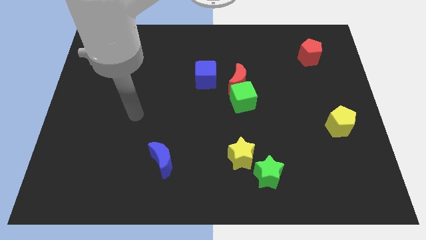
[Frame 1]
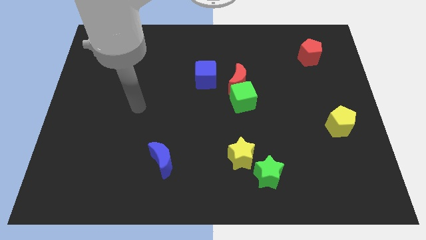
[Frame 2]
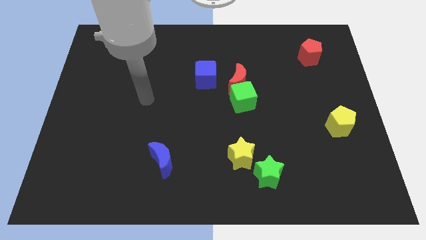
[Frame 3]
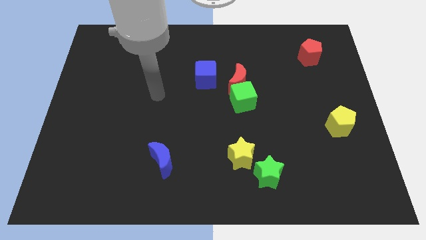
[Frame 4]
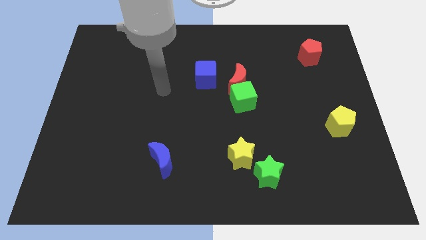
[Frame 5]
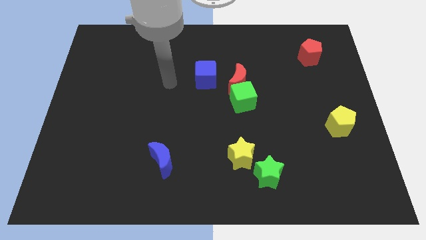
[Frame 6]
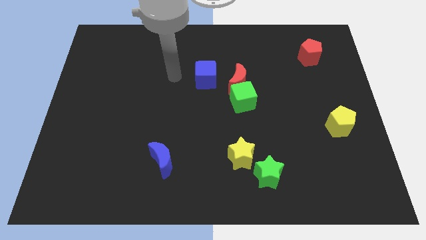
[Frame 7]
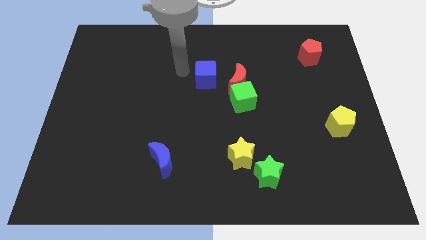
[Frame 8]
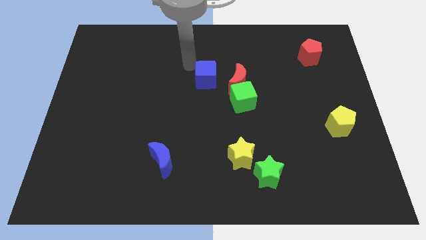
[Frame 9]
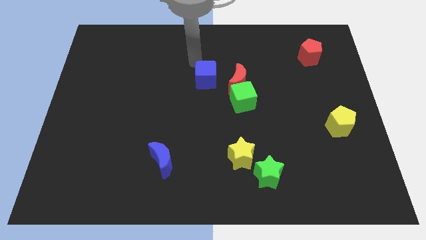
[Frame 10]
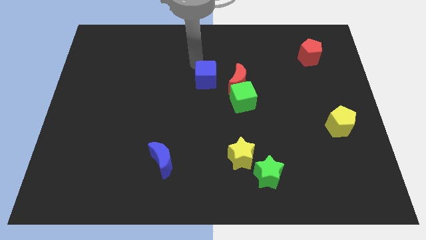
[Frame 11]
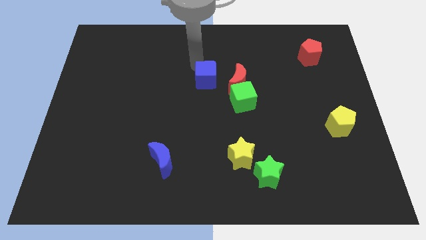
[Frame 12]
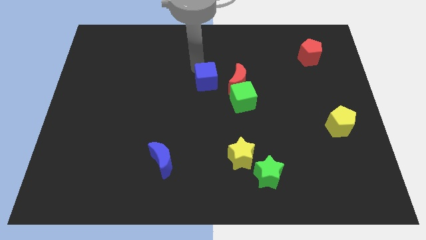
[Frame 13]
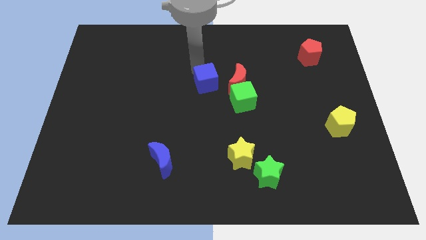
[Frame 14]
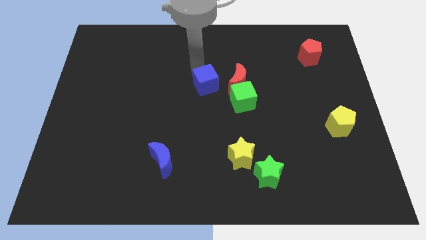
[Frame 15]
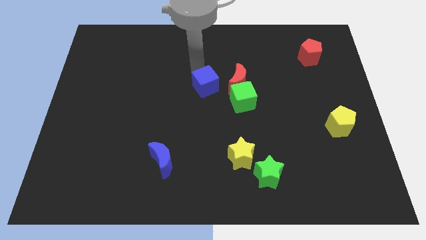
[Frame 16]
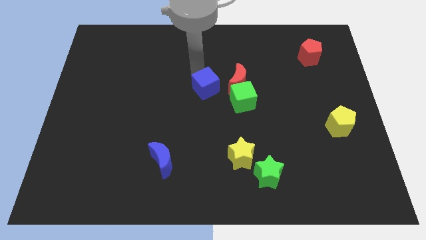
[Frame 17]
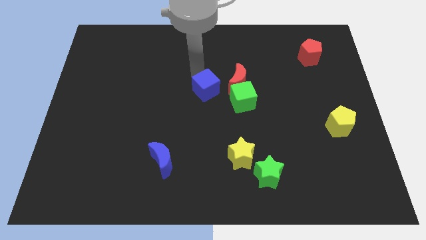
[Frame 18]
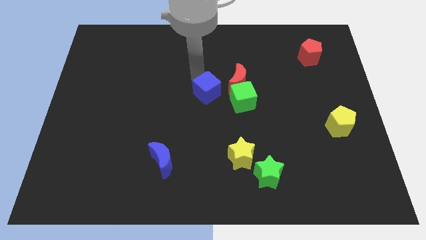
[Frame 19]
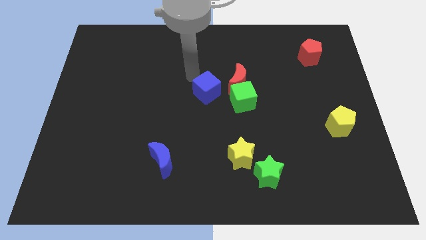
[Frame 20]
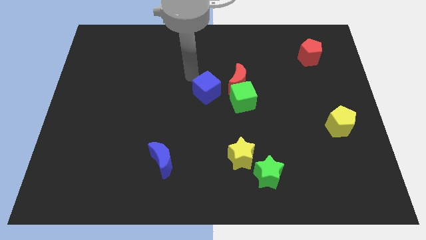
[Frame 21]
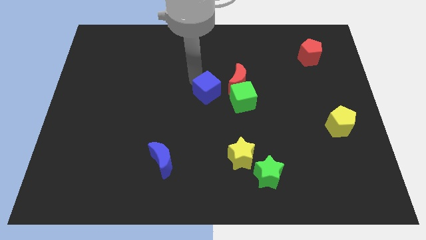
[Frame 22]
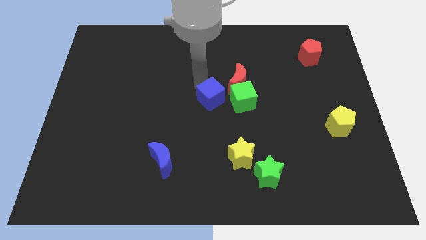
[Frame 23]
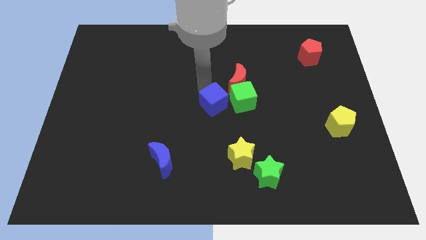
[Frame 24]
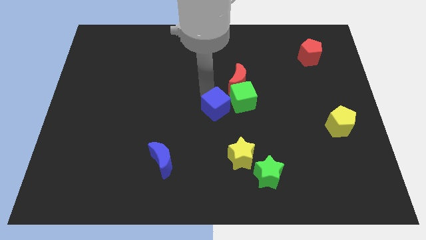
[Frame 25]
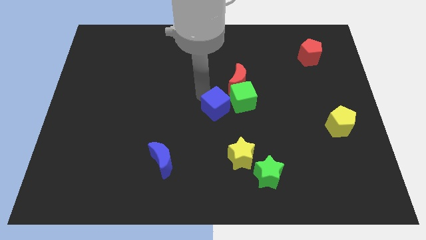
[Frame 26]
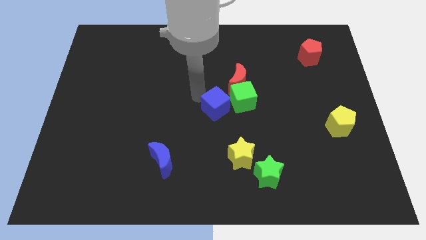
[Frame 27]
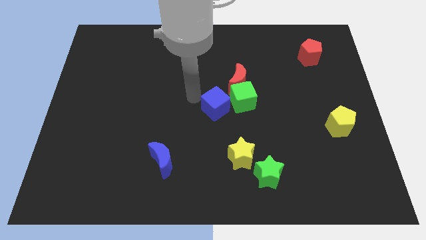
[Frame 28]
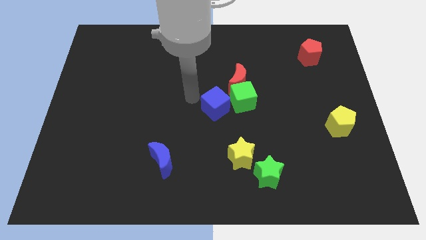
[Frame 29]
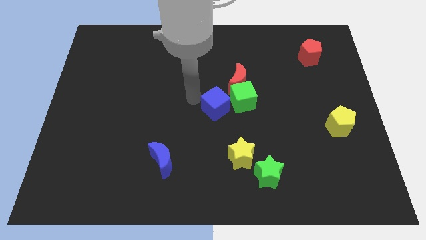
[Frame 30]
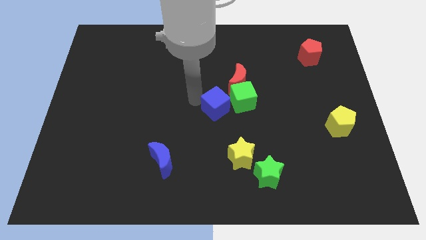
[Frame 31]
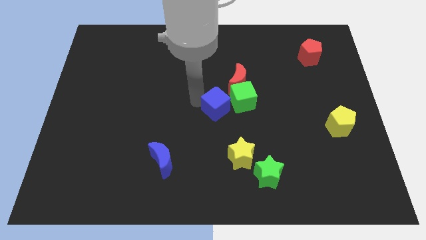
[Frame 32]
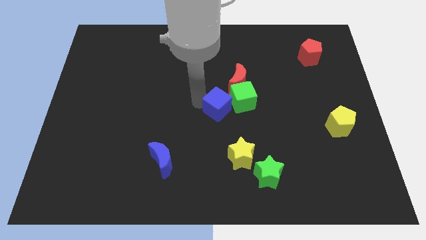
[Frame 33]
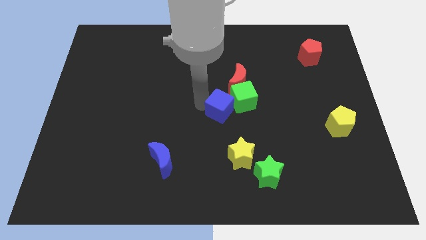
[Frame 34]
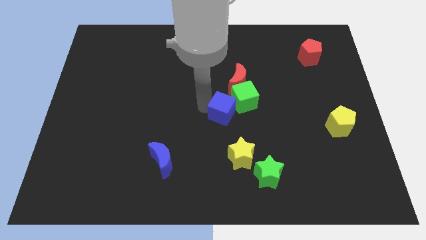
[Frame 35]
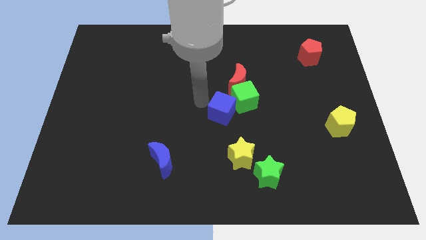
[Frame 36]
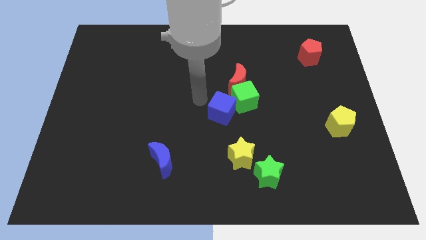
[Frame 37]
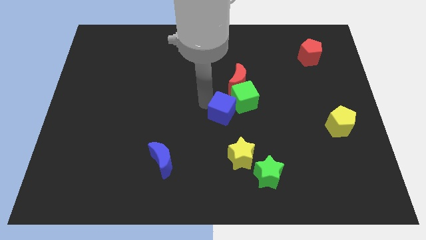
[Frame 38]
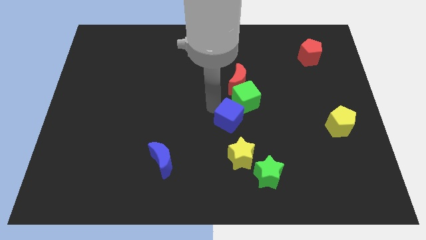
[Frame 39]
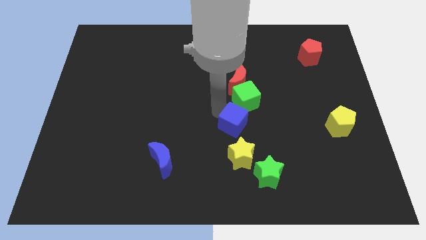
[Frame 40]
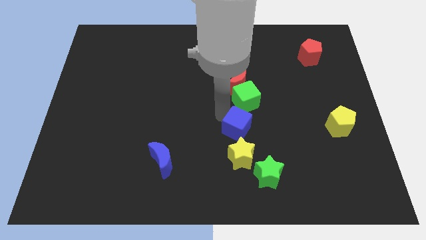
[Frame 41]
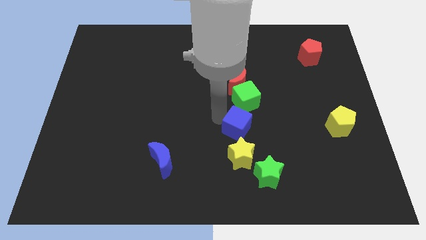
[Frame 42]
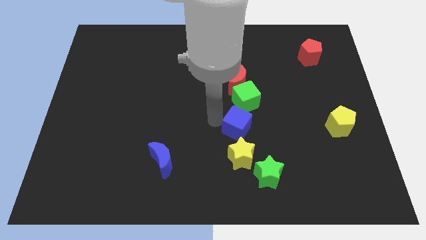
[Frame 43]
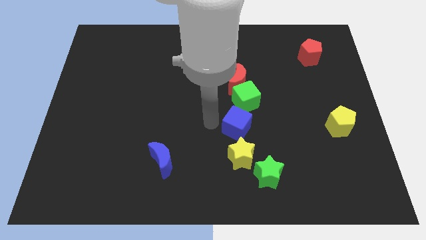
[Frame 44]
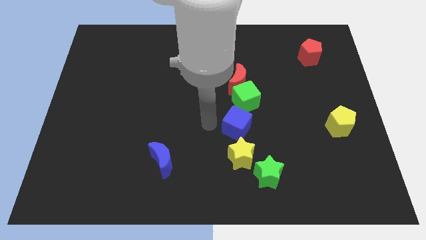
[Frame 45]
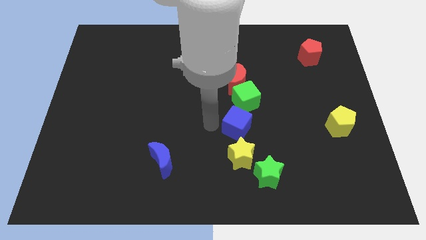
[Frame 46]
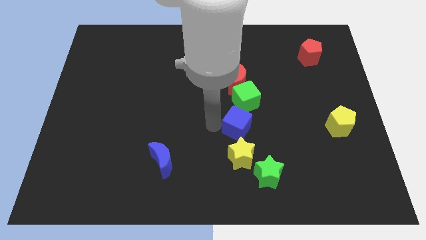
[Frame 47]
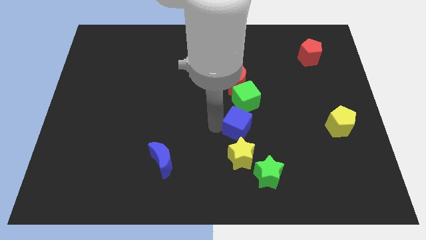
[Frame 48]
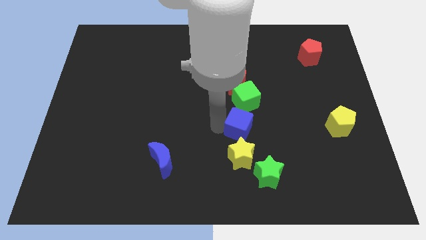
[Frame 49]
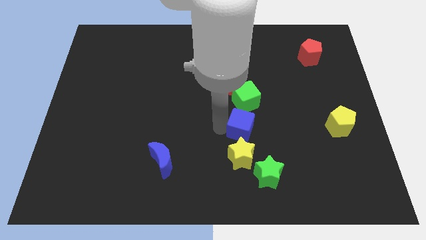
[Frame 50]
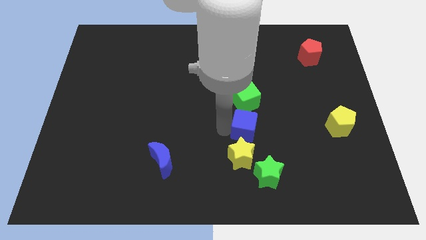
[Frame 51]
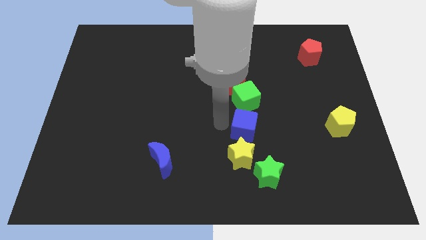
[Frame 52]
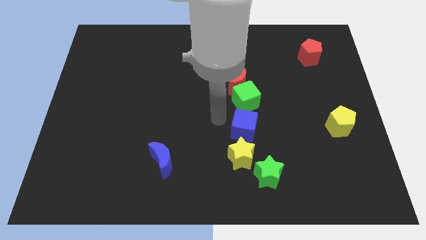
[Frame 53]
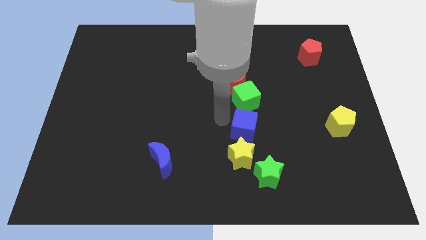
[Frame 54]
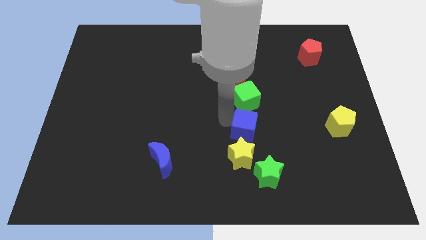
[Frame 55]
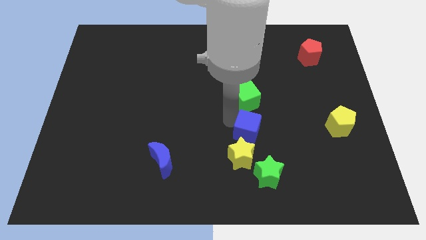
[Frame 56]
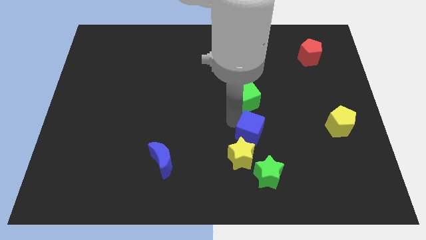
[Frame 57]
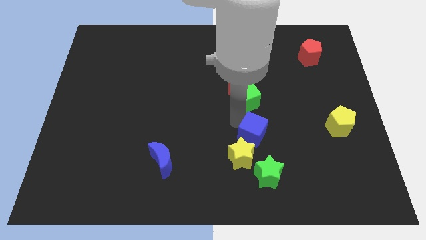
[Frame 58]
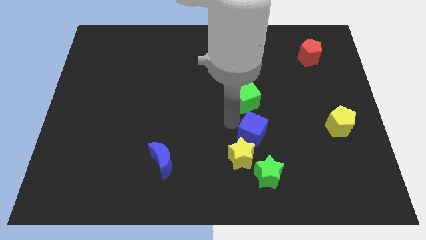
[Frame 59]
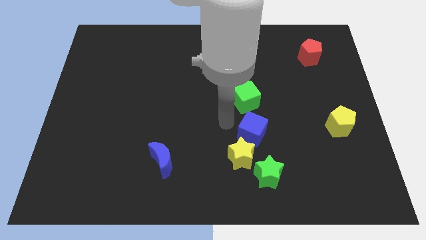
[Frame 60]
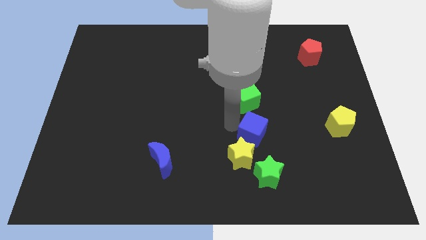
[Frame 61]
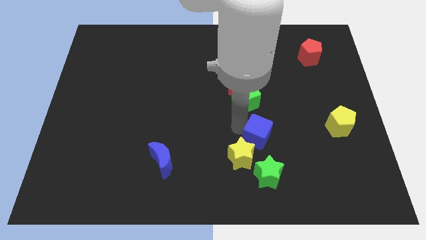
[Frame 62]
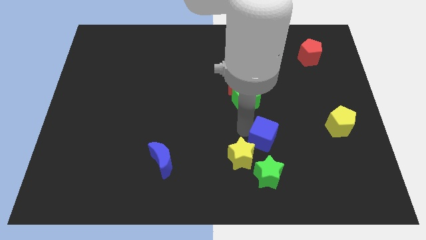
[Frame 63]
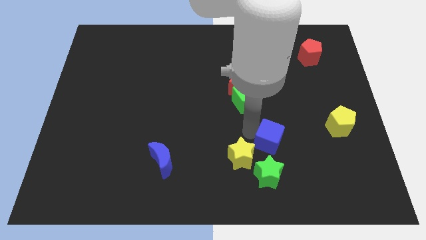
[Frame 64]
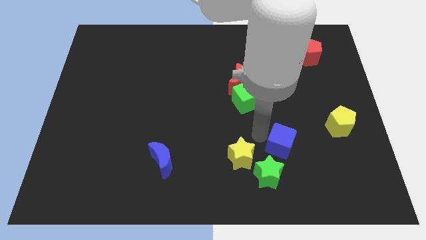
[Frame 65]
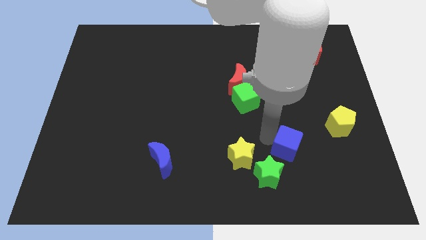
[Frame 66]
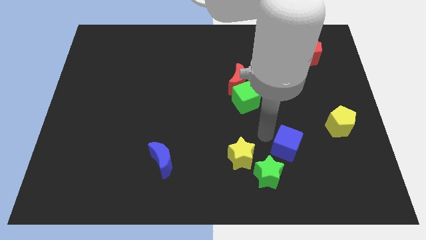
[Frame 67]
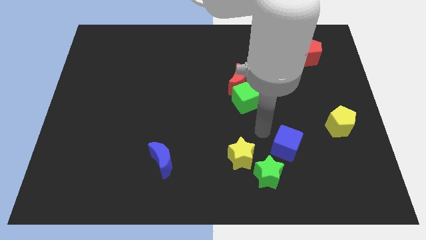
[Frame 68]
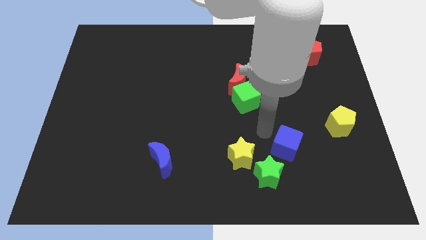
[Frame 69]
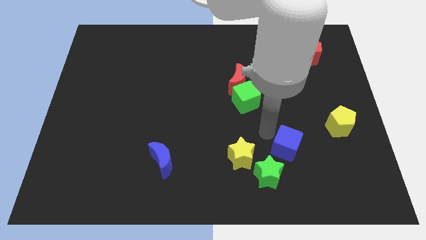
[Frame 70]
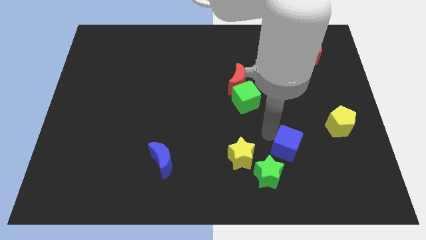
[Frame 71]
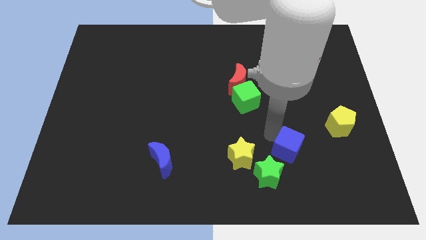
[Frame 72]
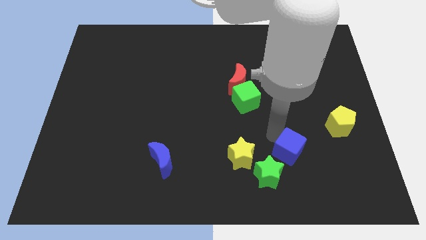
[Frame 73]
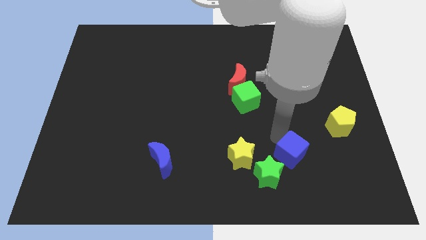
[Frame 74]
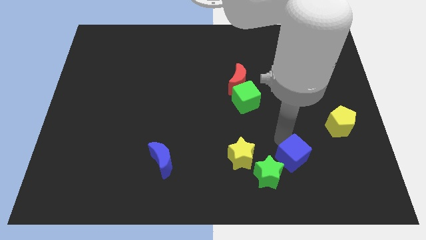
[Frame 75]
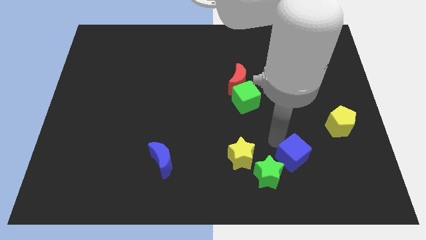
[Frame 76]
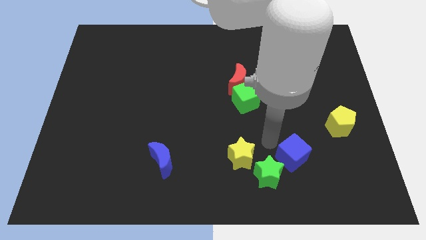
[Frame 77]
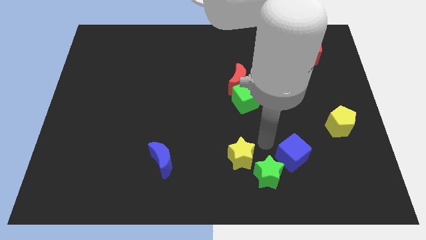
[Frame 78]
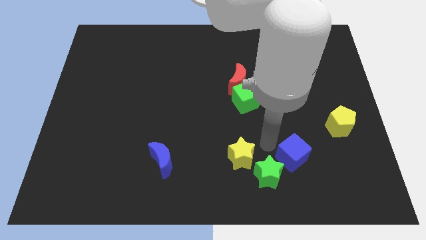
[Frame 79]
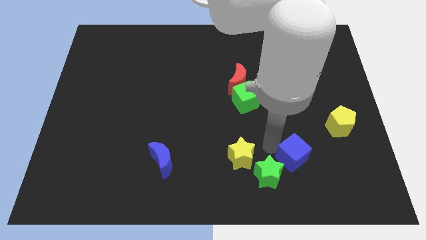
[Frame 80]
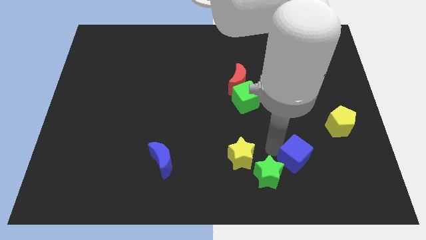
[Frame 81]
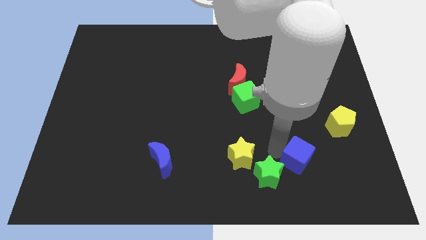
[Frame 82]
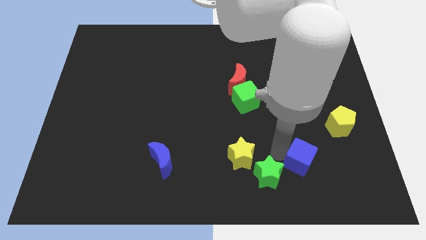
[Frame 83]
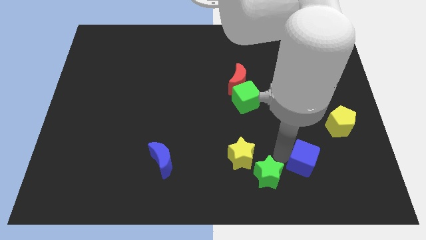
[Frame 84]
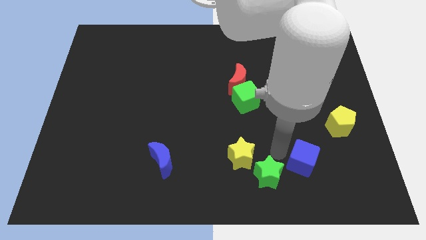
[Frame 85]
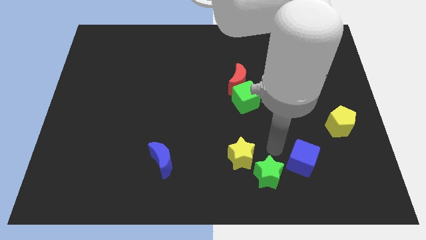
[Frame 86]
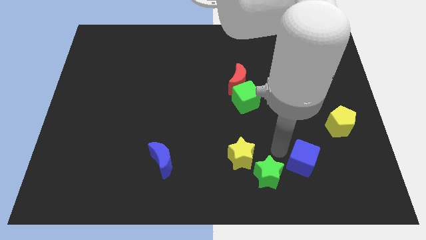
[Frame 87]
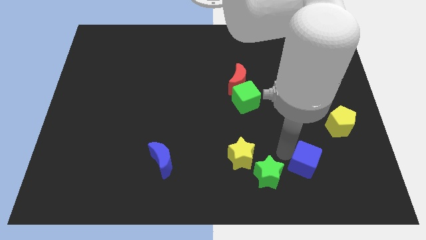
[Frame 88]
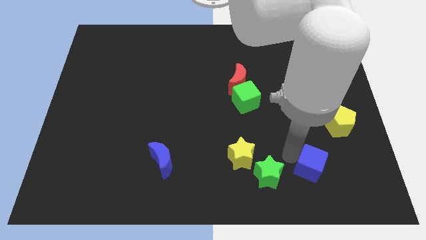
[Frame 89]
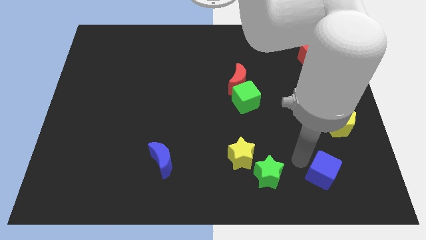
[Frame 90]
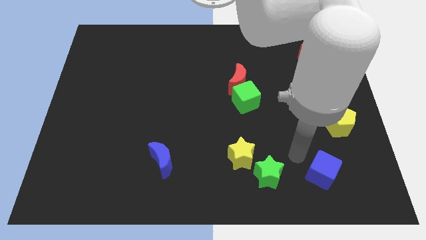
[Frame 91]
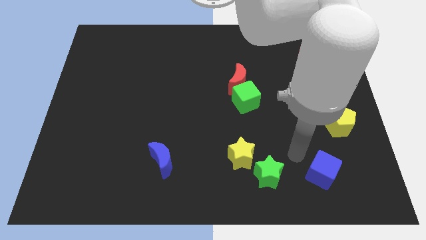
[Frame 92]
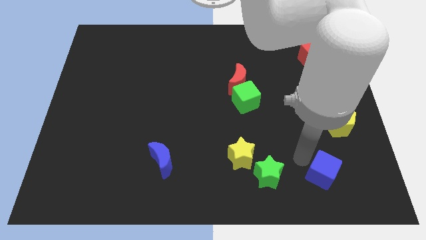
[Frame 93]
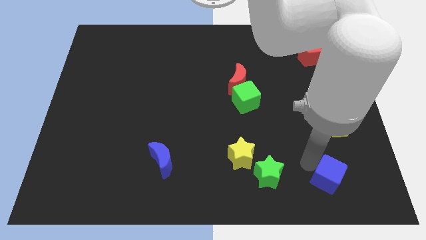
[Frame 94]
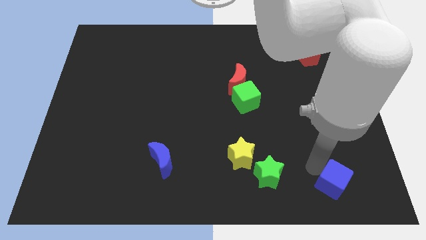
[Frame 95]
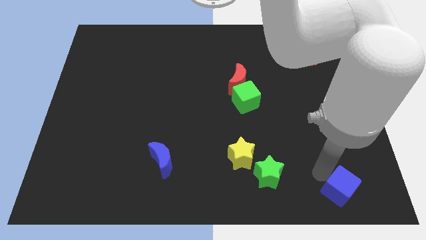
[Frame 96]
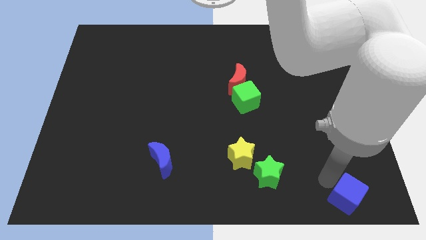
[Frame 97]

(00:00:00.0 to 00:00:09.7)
move the blue cube to the bottom right of the board
